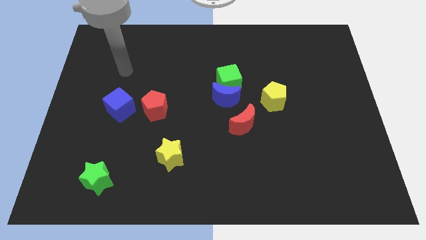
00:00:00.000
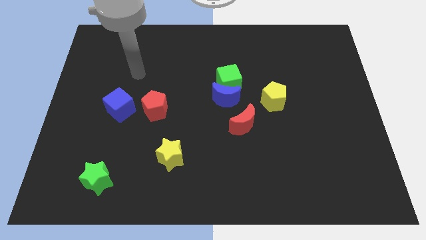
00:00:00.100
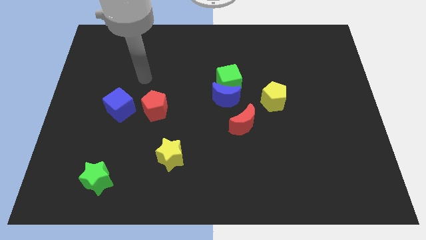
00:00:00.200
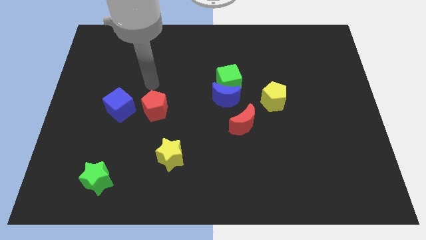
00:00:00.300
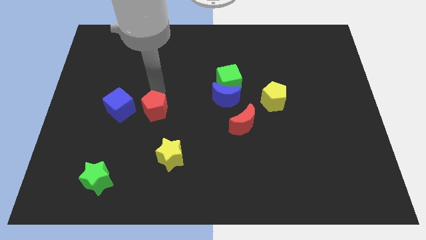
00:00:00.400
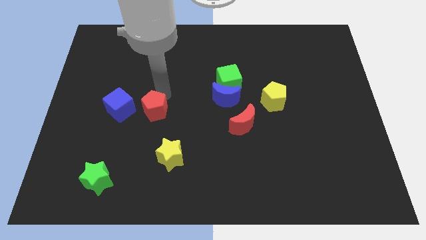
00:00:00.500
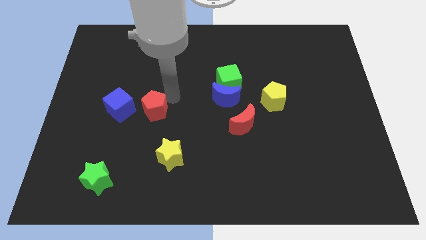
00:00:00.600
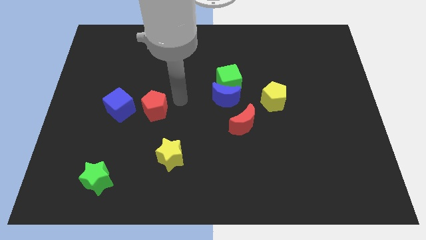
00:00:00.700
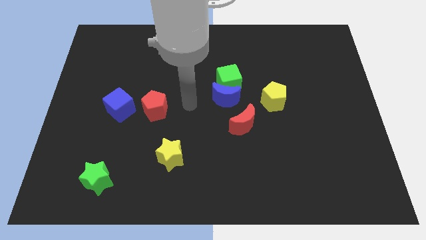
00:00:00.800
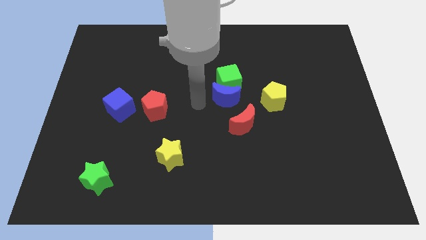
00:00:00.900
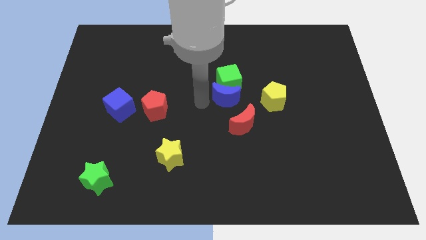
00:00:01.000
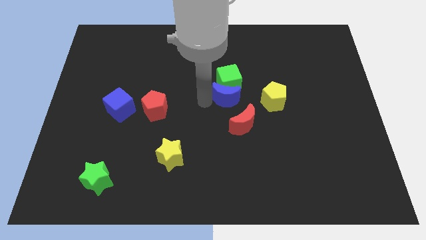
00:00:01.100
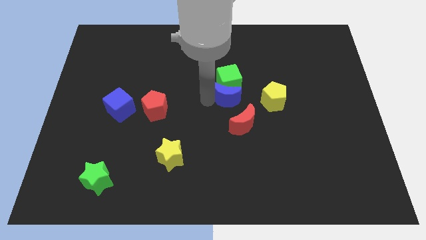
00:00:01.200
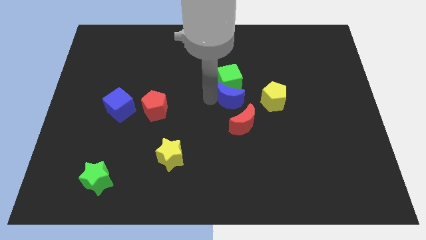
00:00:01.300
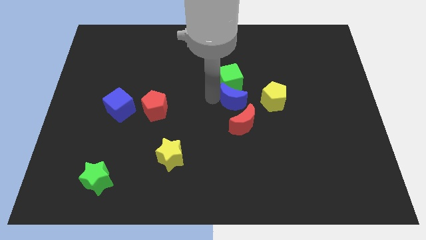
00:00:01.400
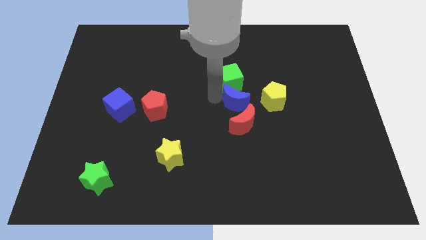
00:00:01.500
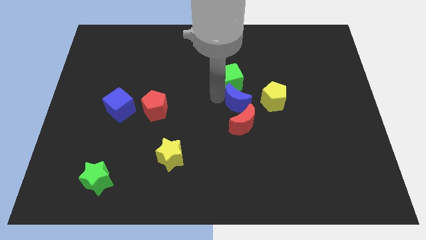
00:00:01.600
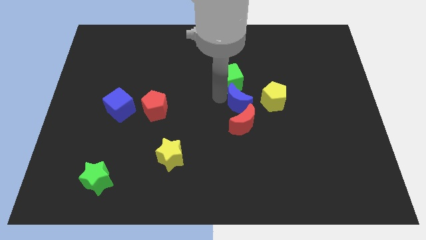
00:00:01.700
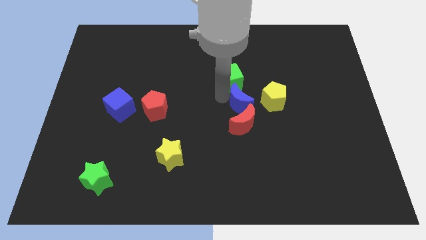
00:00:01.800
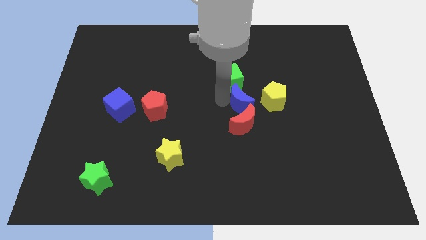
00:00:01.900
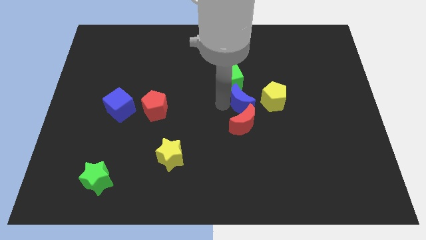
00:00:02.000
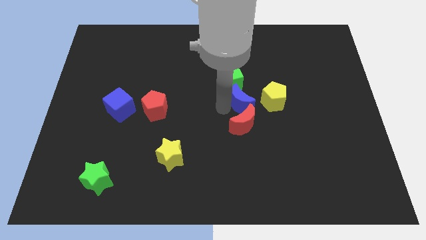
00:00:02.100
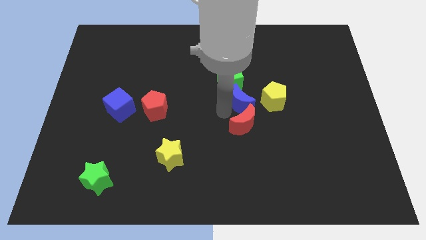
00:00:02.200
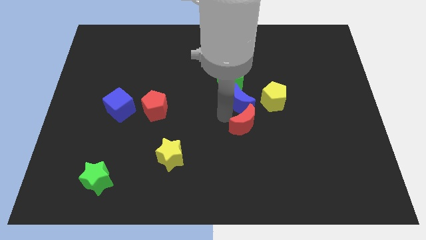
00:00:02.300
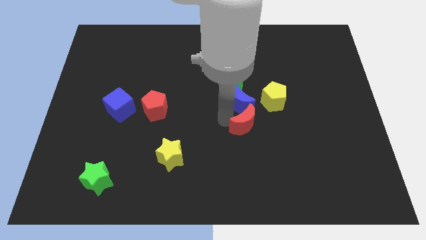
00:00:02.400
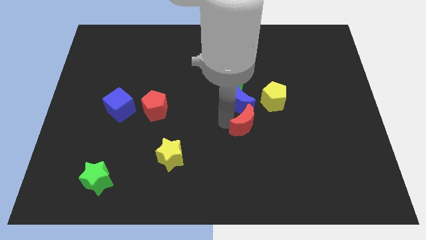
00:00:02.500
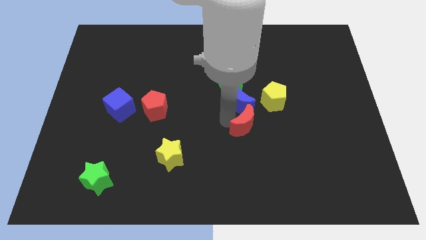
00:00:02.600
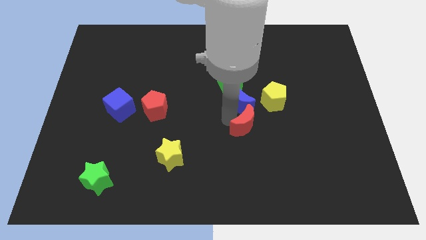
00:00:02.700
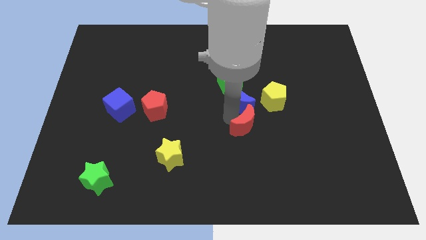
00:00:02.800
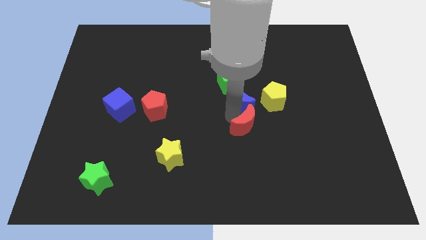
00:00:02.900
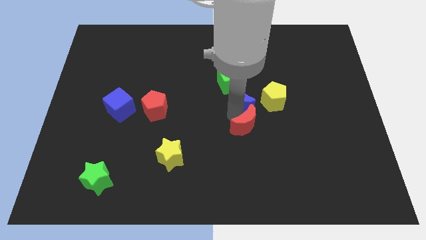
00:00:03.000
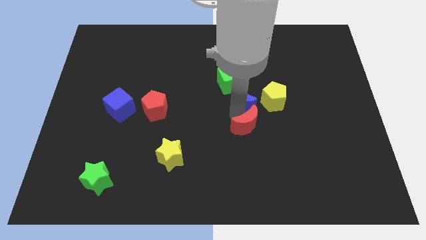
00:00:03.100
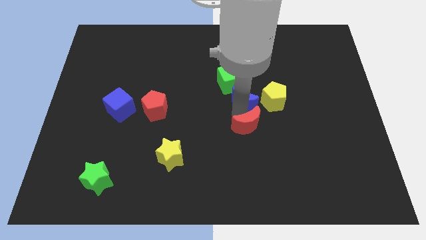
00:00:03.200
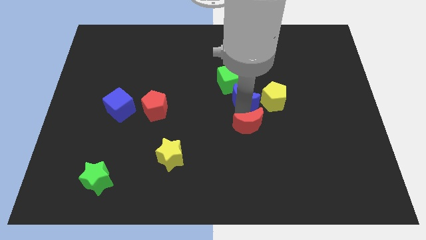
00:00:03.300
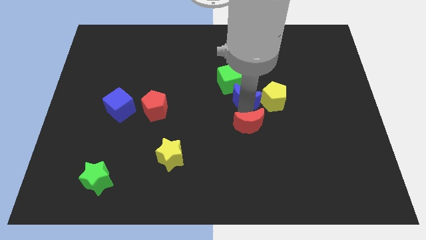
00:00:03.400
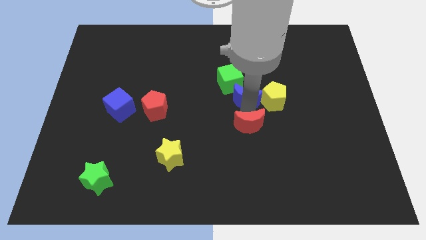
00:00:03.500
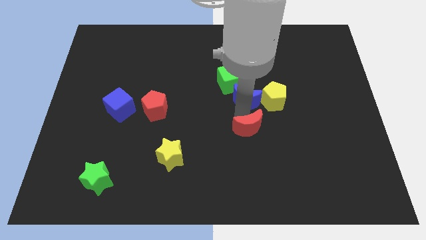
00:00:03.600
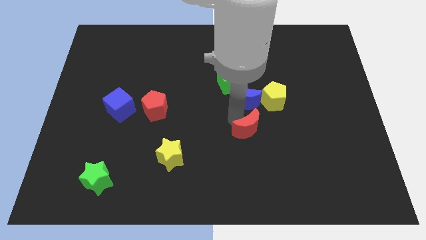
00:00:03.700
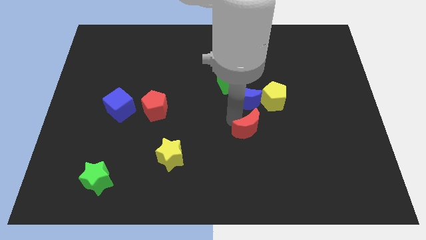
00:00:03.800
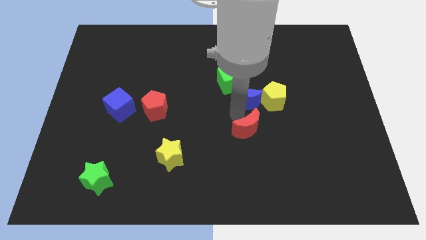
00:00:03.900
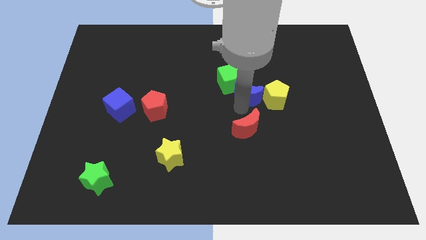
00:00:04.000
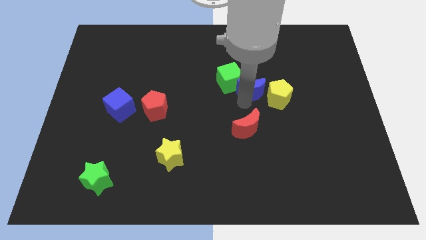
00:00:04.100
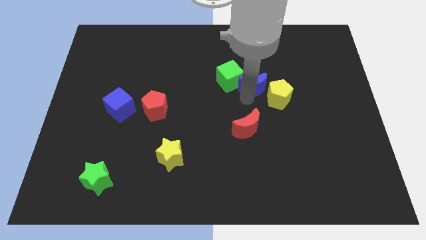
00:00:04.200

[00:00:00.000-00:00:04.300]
slide the blue moon up and right diagonally a bit

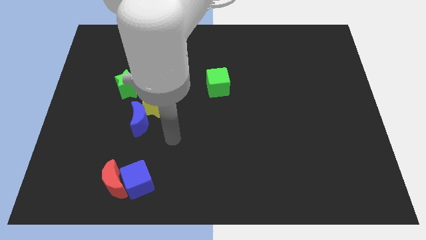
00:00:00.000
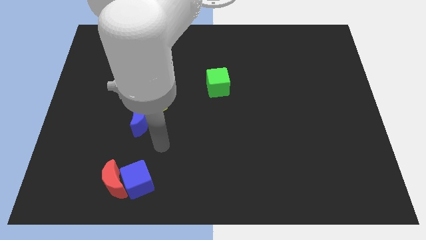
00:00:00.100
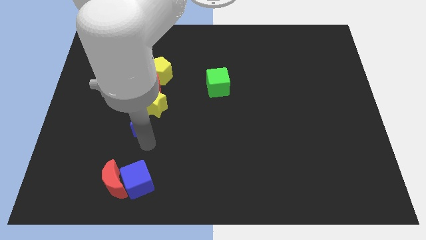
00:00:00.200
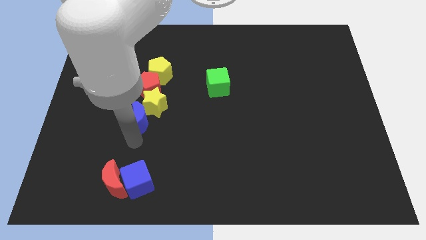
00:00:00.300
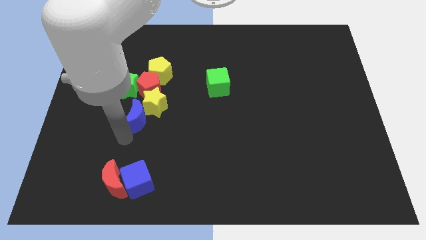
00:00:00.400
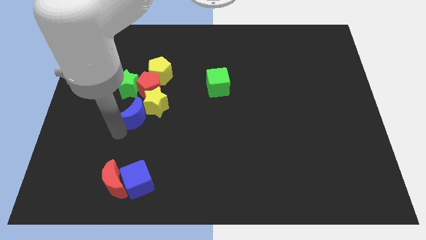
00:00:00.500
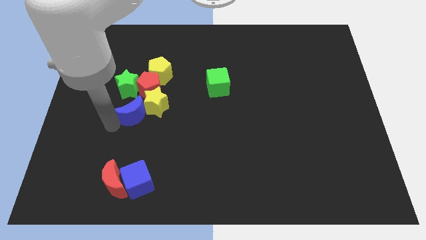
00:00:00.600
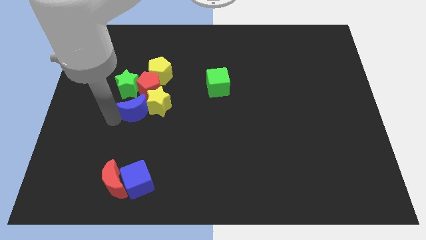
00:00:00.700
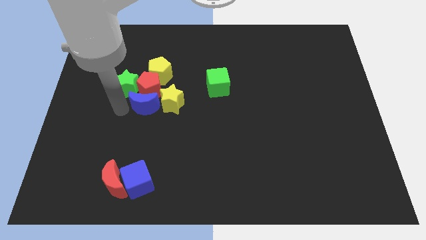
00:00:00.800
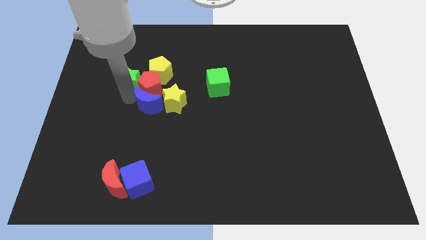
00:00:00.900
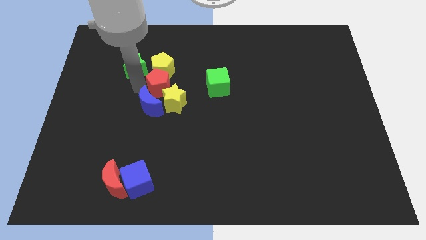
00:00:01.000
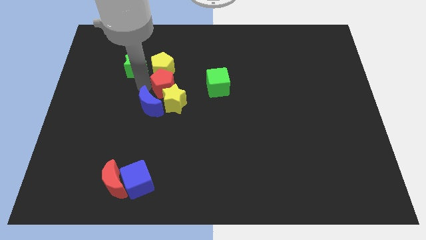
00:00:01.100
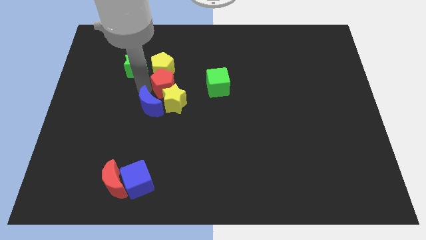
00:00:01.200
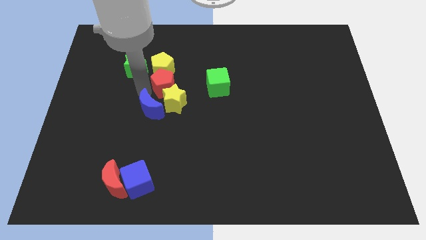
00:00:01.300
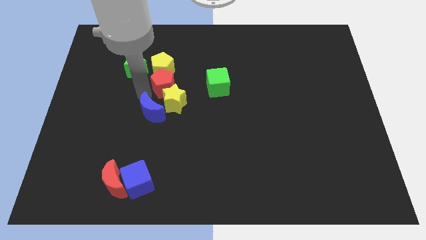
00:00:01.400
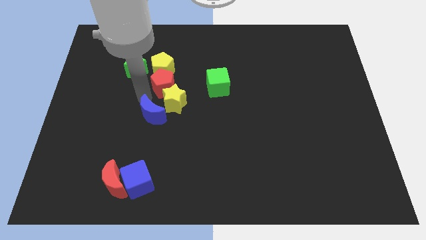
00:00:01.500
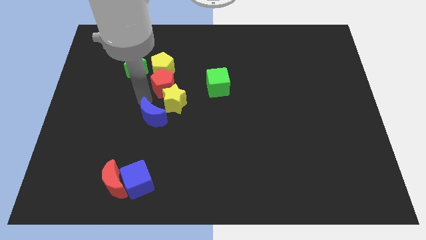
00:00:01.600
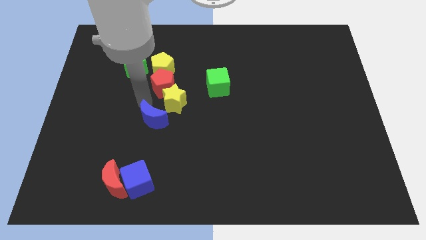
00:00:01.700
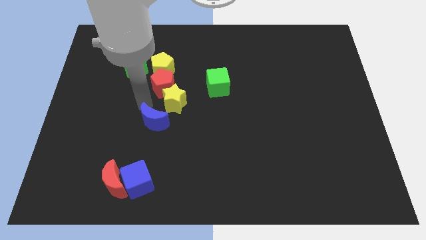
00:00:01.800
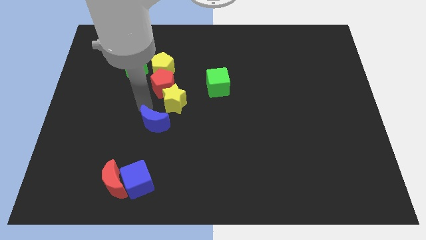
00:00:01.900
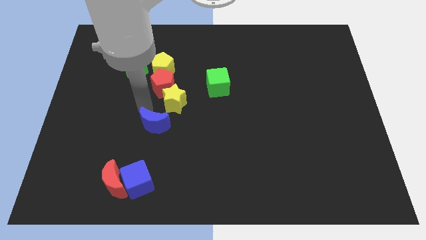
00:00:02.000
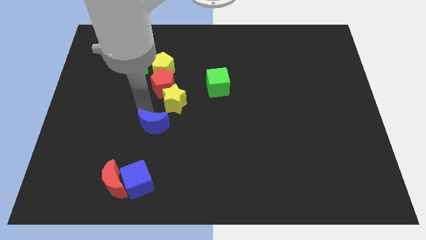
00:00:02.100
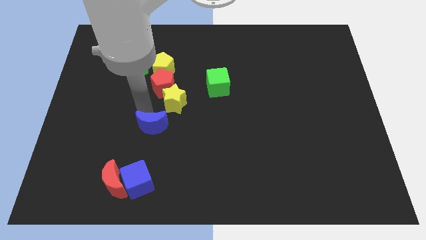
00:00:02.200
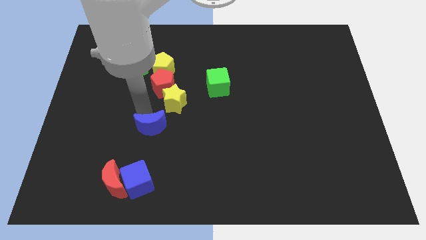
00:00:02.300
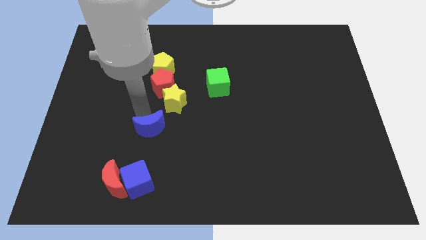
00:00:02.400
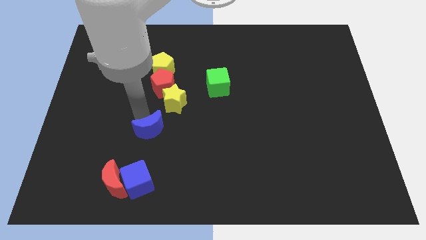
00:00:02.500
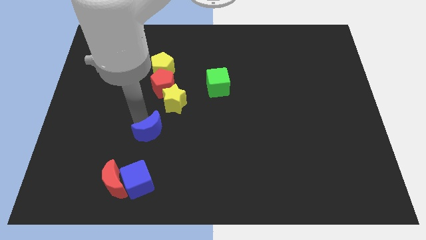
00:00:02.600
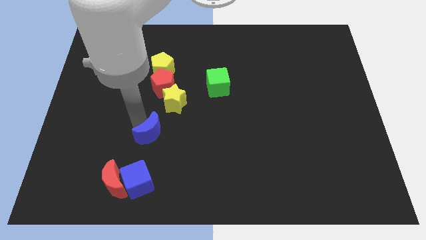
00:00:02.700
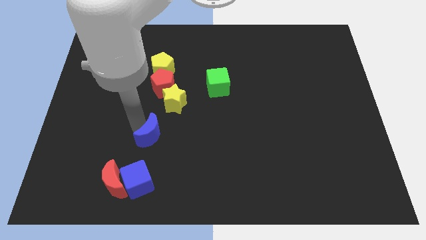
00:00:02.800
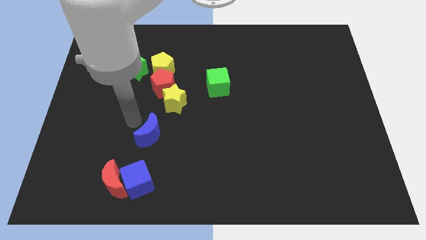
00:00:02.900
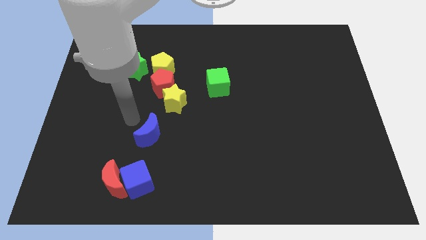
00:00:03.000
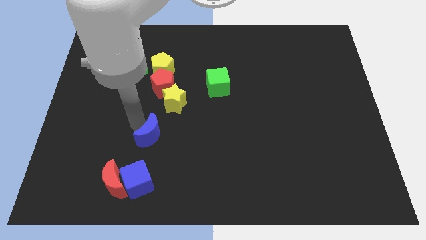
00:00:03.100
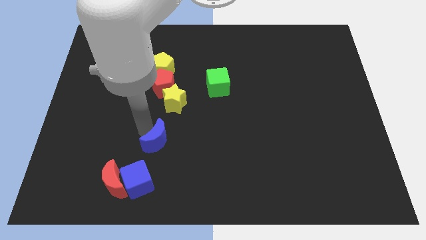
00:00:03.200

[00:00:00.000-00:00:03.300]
slightly slide the blue moon downwards and right diagonally

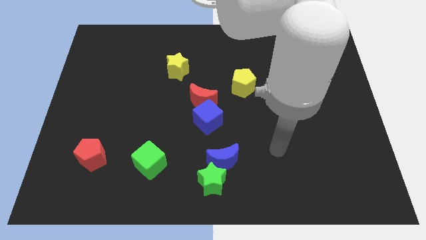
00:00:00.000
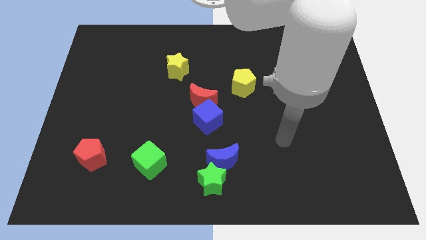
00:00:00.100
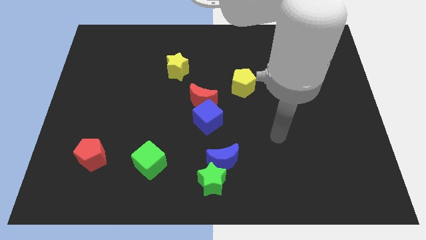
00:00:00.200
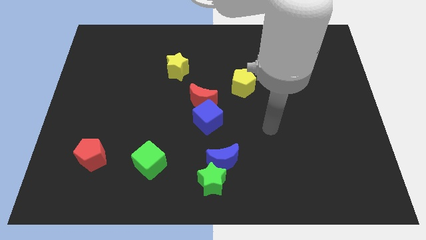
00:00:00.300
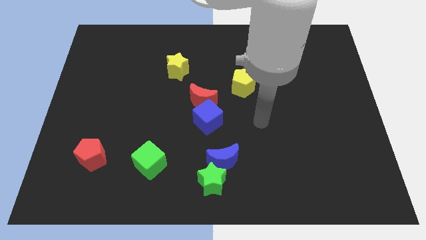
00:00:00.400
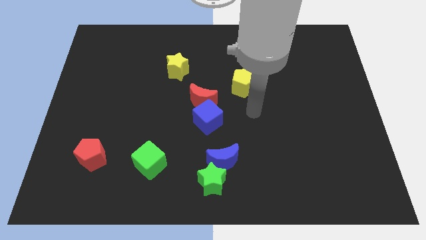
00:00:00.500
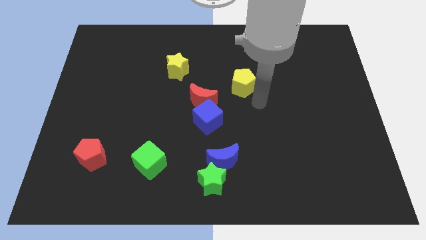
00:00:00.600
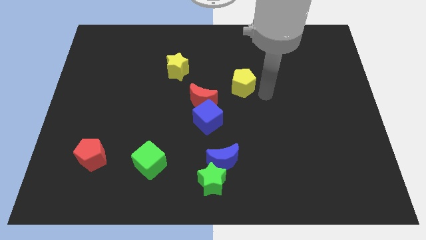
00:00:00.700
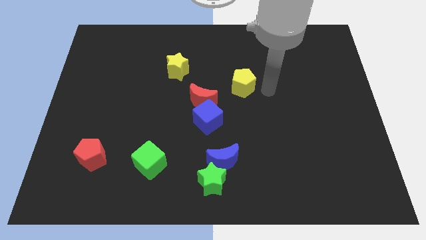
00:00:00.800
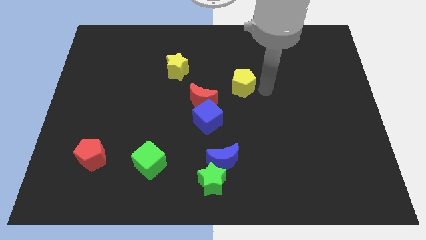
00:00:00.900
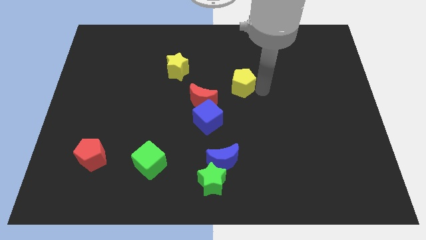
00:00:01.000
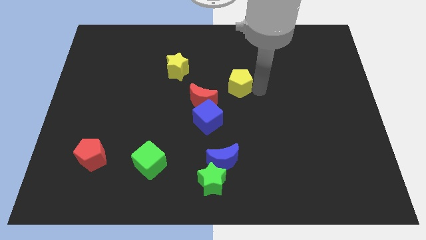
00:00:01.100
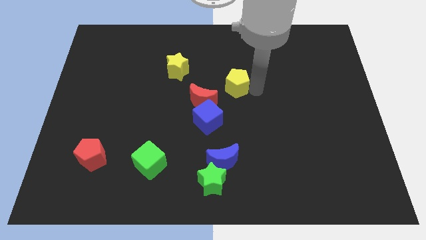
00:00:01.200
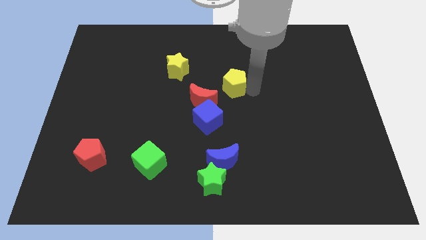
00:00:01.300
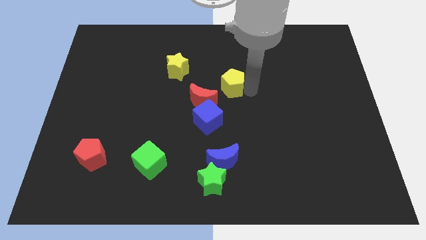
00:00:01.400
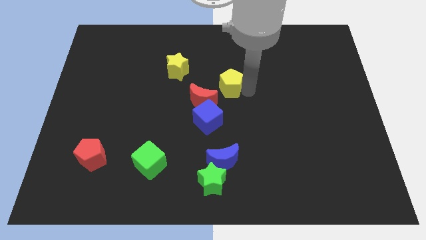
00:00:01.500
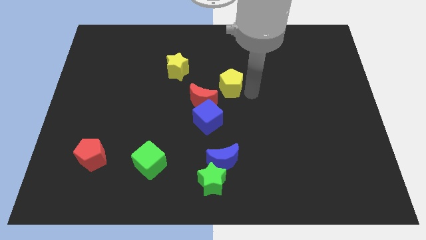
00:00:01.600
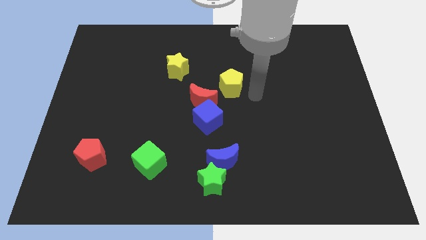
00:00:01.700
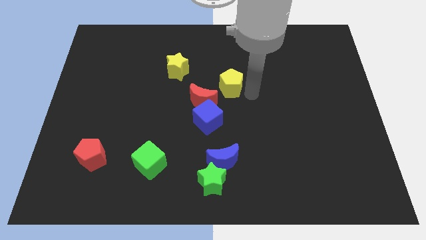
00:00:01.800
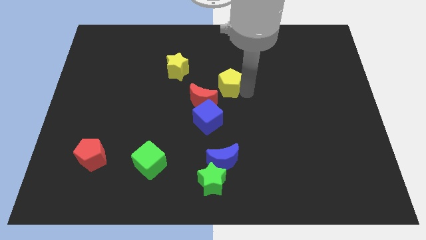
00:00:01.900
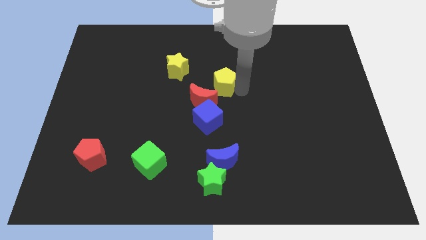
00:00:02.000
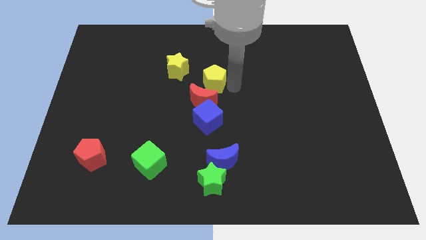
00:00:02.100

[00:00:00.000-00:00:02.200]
slide the yellow pentagon a bit left
